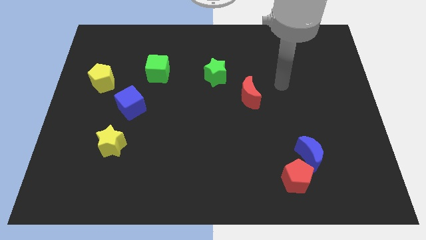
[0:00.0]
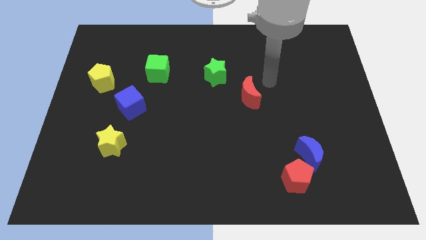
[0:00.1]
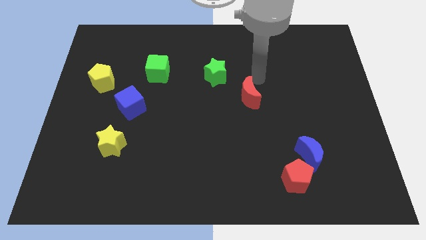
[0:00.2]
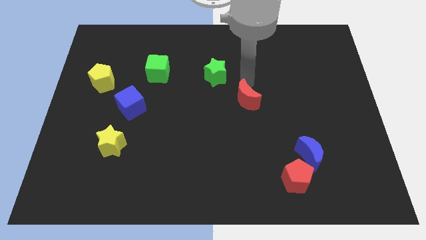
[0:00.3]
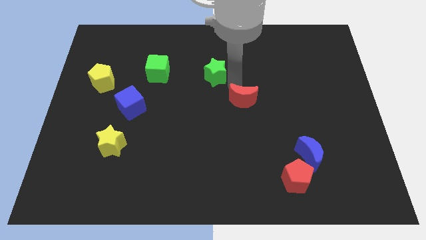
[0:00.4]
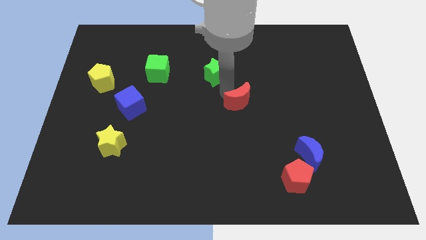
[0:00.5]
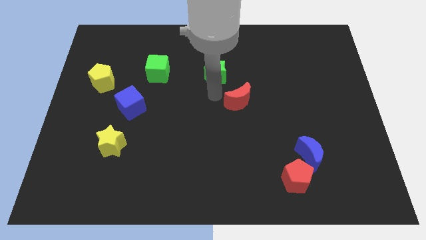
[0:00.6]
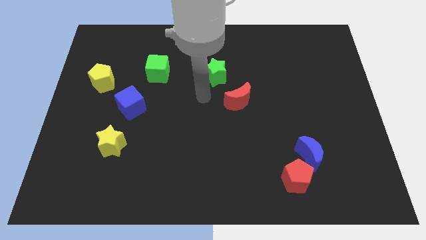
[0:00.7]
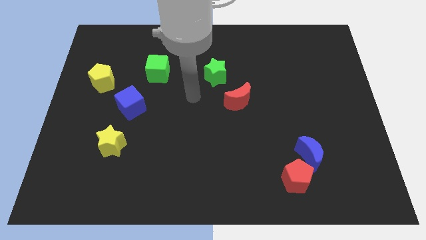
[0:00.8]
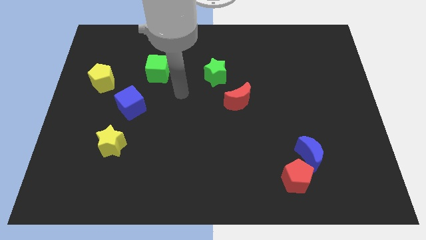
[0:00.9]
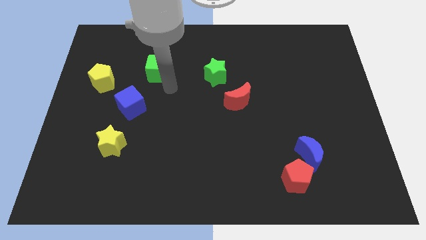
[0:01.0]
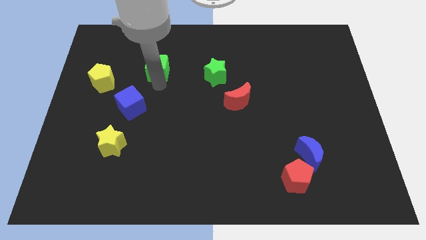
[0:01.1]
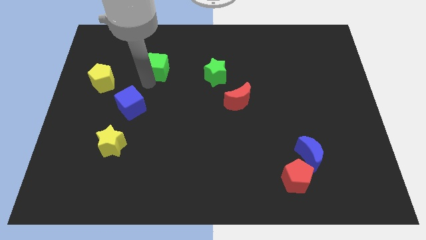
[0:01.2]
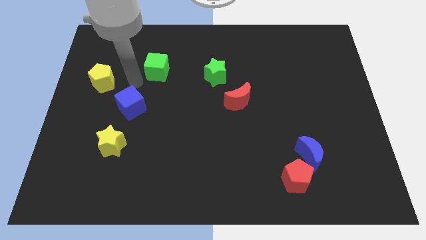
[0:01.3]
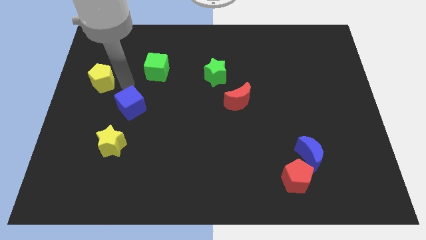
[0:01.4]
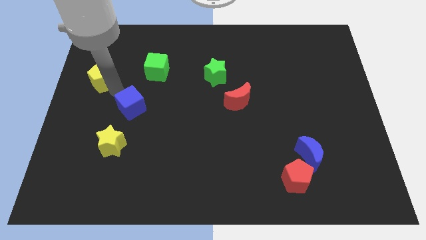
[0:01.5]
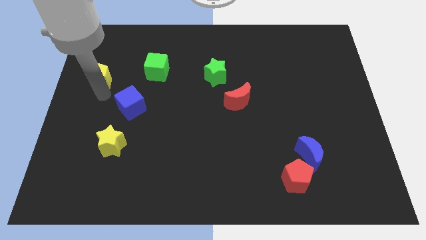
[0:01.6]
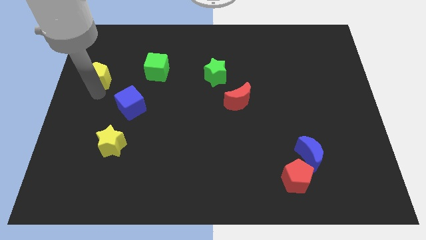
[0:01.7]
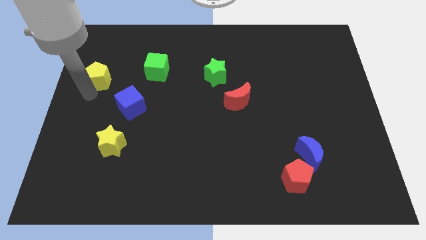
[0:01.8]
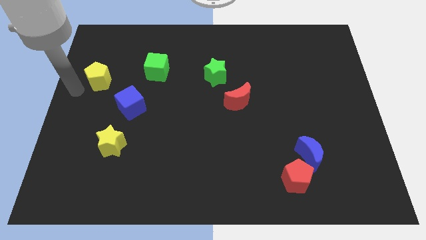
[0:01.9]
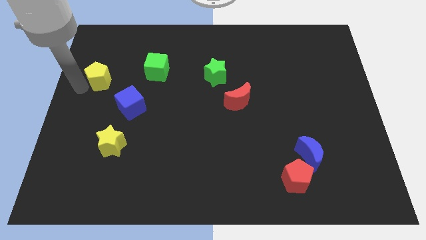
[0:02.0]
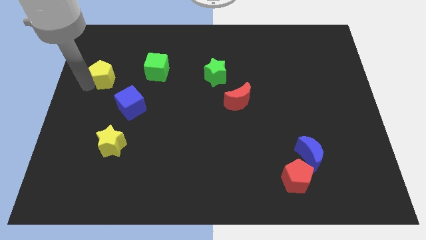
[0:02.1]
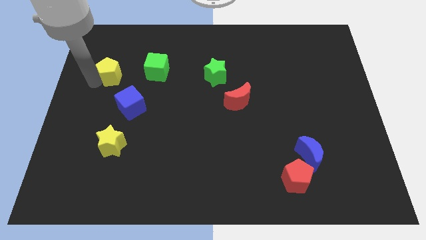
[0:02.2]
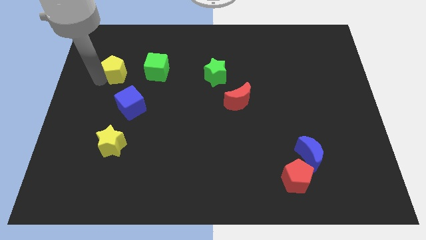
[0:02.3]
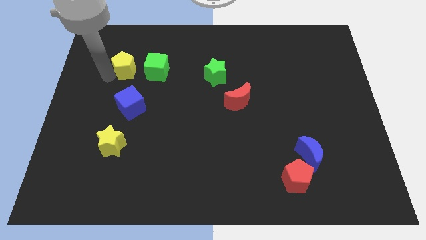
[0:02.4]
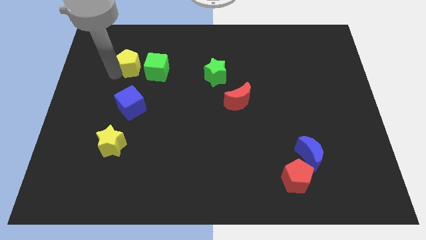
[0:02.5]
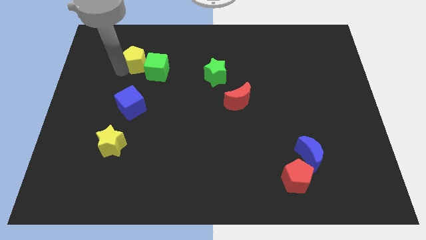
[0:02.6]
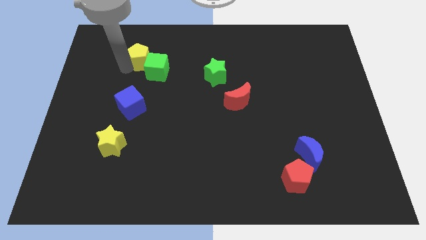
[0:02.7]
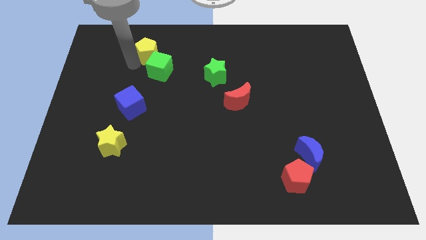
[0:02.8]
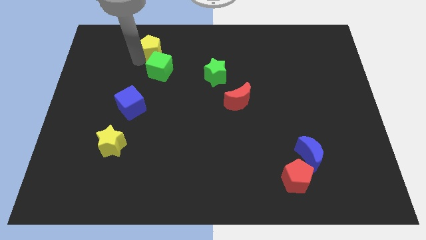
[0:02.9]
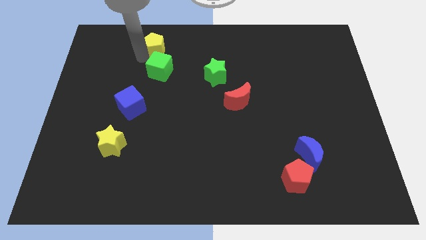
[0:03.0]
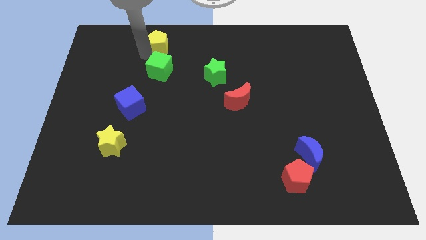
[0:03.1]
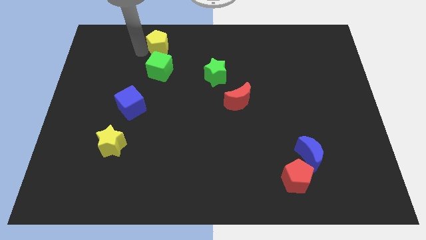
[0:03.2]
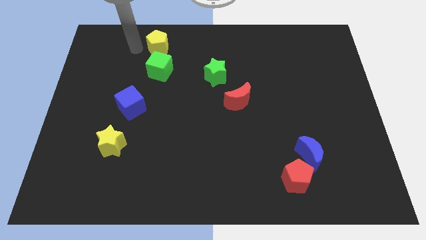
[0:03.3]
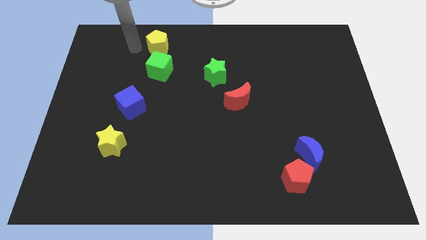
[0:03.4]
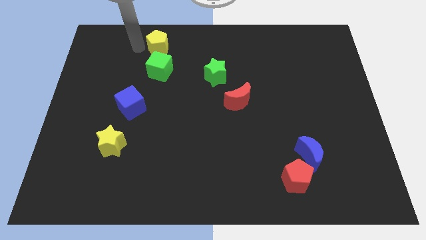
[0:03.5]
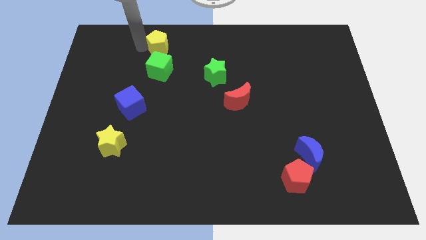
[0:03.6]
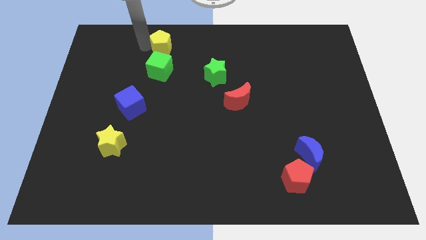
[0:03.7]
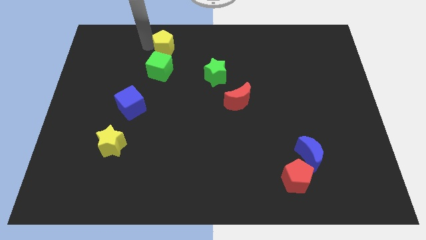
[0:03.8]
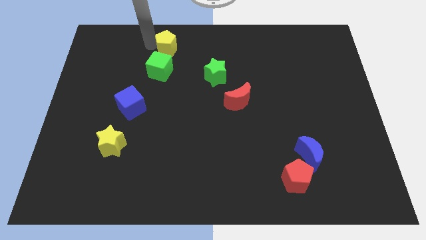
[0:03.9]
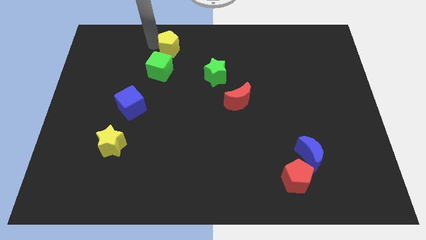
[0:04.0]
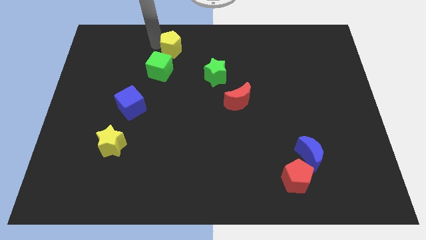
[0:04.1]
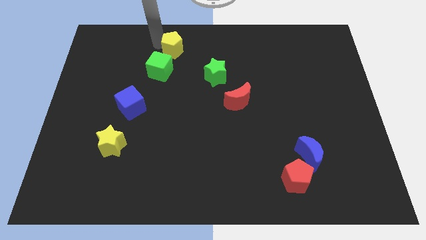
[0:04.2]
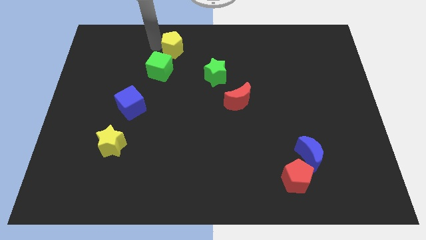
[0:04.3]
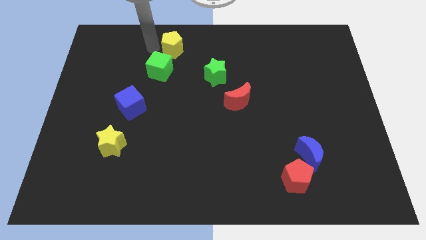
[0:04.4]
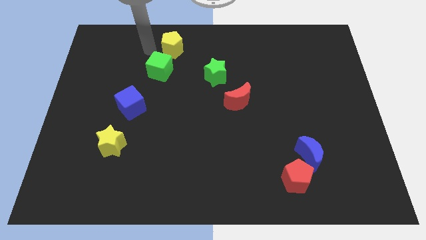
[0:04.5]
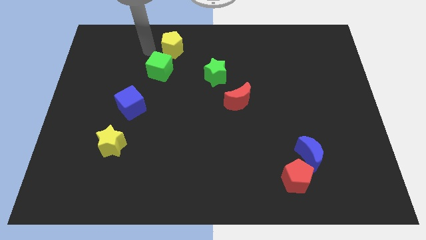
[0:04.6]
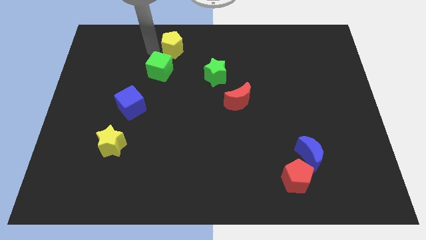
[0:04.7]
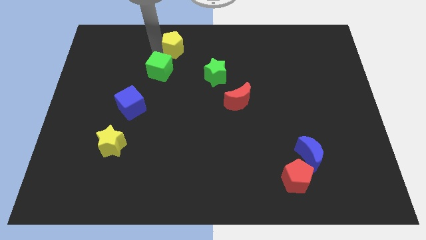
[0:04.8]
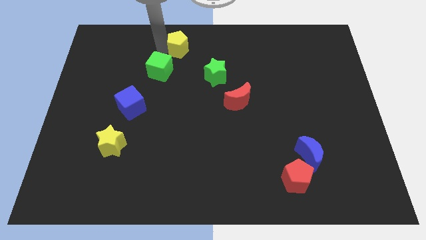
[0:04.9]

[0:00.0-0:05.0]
move the yellow pentagon to the towards your base
